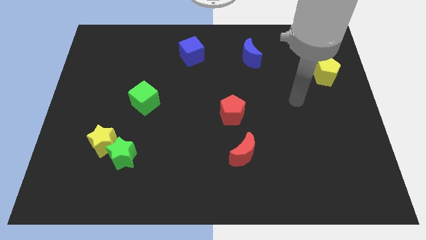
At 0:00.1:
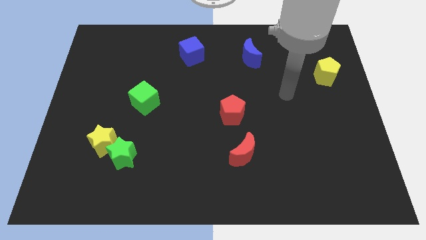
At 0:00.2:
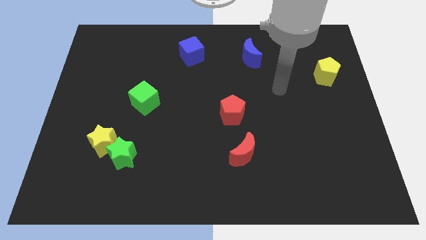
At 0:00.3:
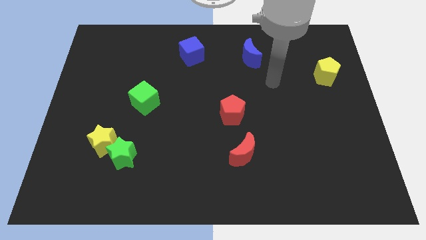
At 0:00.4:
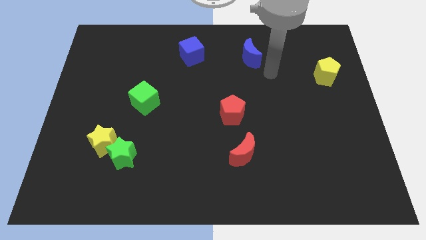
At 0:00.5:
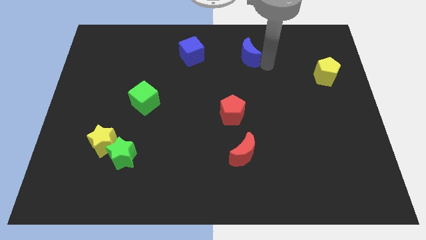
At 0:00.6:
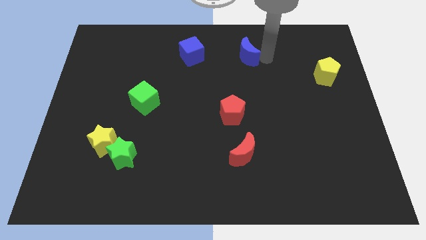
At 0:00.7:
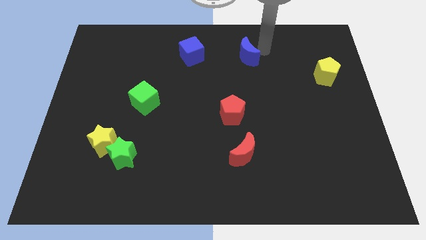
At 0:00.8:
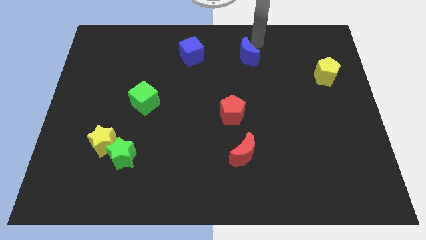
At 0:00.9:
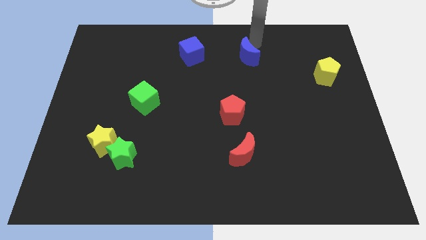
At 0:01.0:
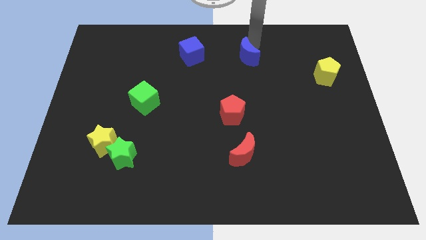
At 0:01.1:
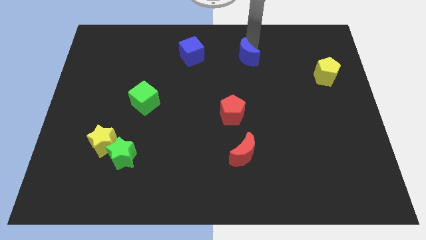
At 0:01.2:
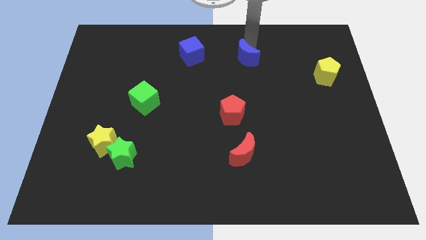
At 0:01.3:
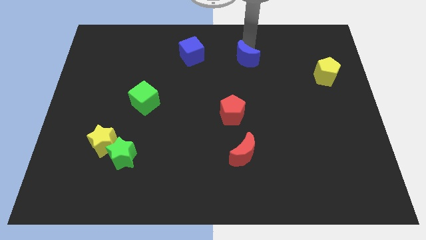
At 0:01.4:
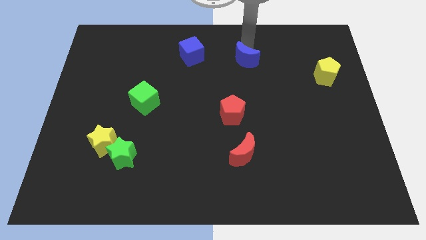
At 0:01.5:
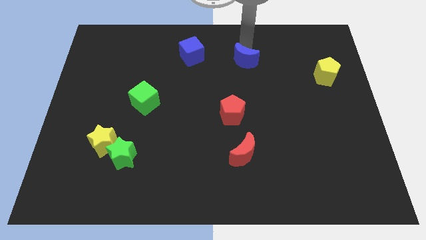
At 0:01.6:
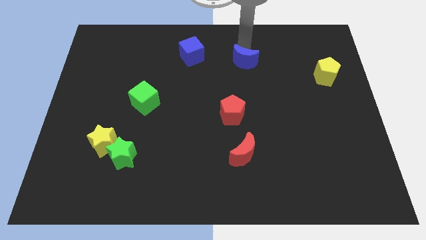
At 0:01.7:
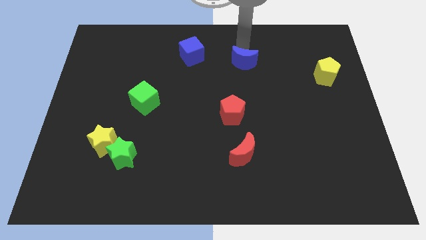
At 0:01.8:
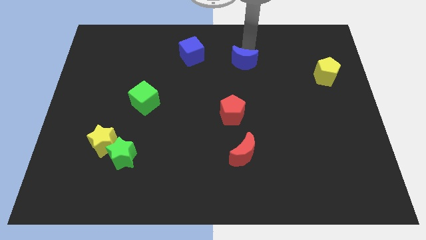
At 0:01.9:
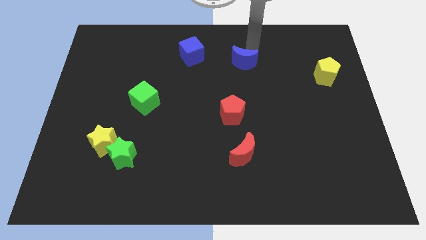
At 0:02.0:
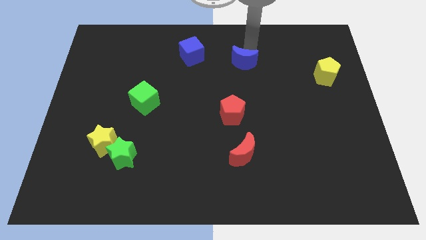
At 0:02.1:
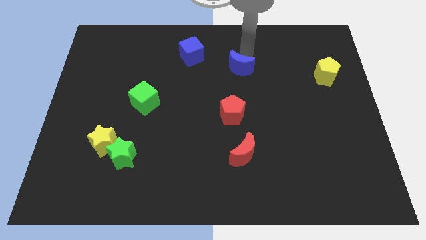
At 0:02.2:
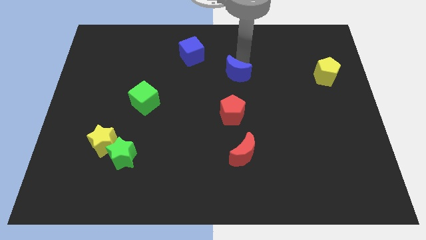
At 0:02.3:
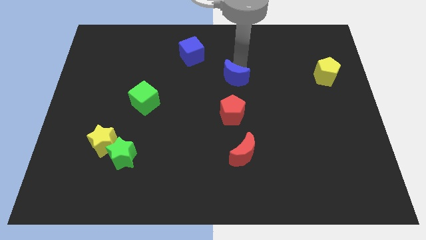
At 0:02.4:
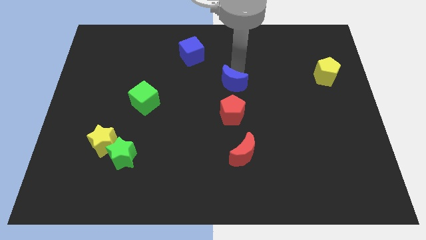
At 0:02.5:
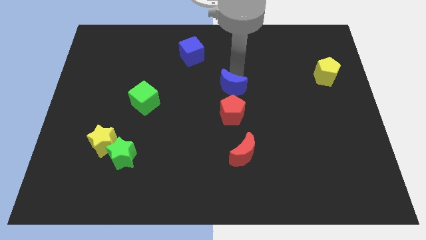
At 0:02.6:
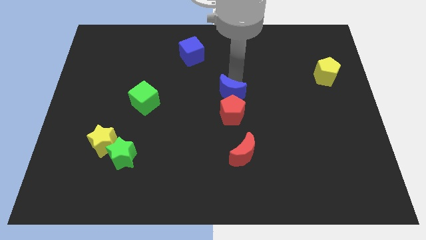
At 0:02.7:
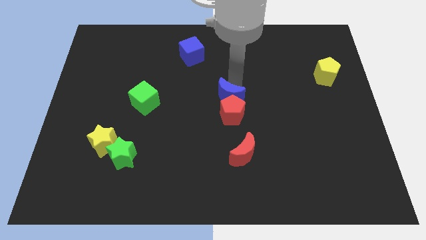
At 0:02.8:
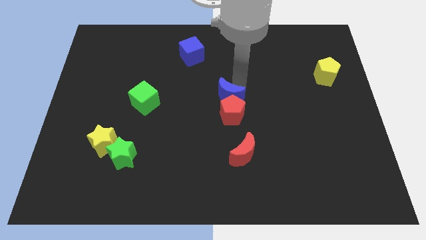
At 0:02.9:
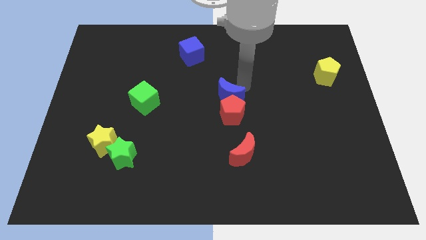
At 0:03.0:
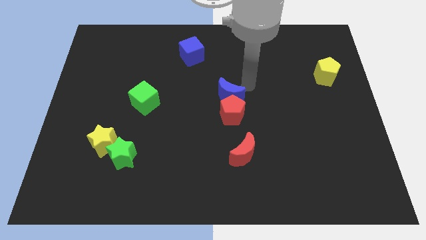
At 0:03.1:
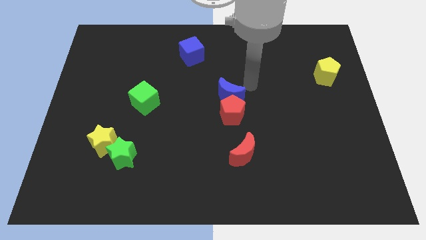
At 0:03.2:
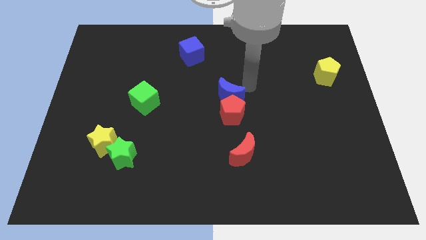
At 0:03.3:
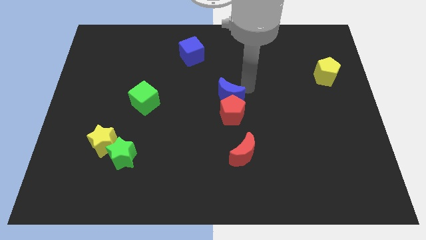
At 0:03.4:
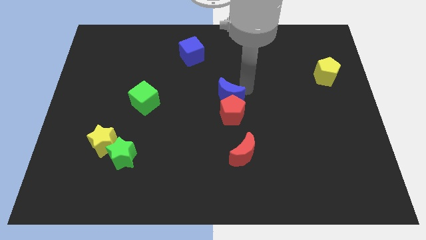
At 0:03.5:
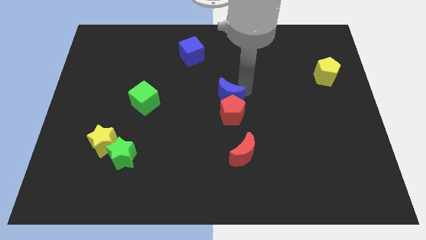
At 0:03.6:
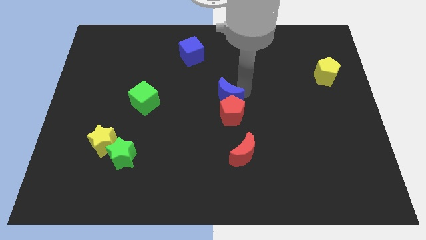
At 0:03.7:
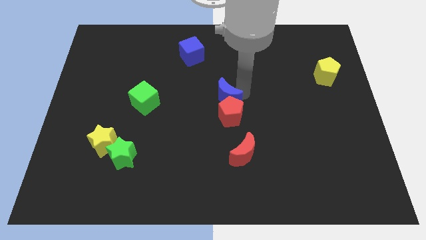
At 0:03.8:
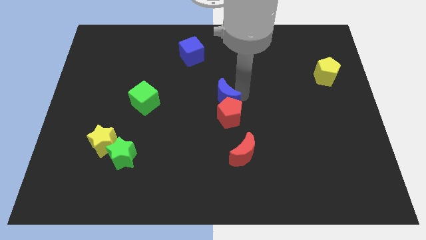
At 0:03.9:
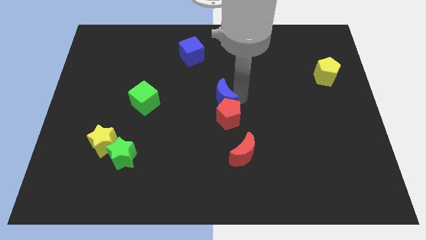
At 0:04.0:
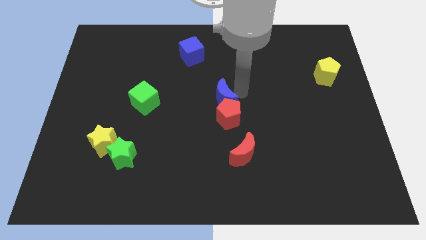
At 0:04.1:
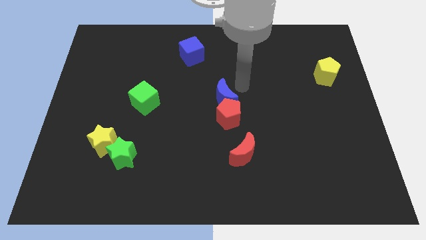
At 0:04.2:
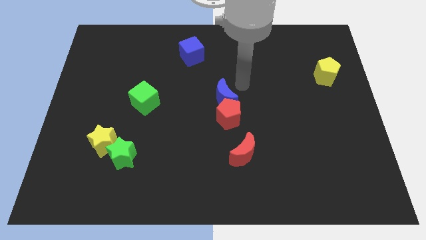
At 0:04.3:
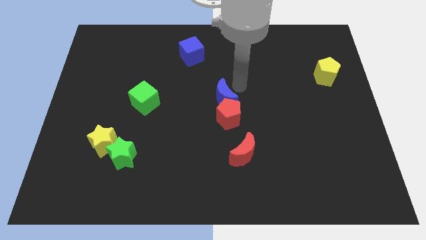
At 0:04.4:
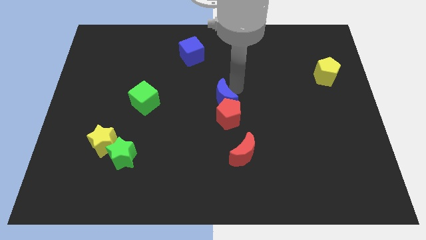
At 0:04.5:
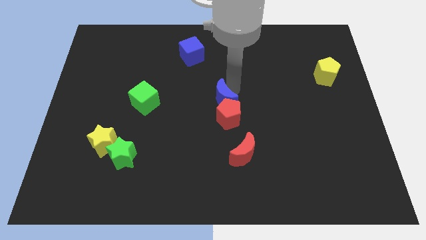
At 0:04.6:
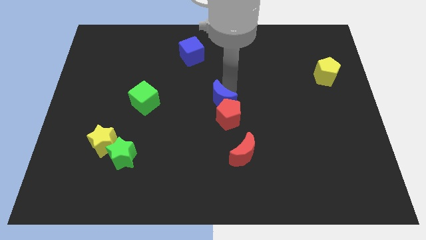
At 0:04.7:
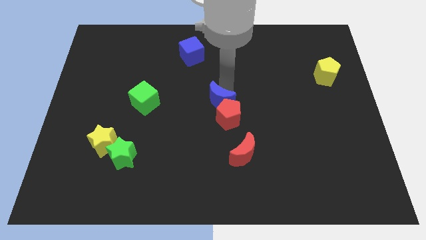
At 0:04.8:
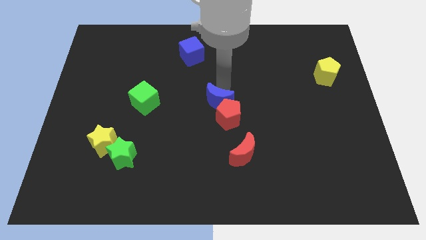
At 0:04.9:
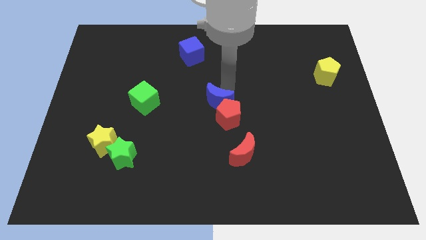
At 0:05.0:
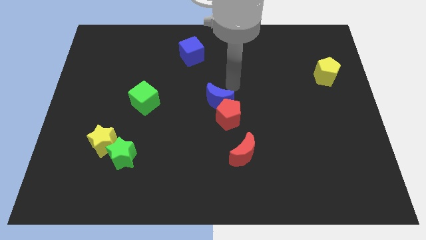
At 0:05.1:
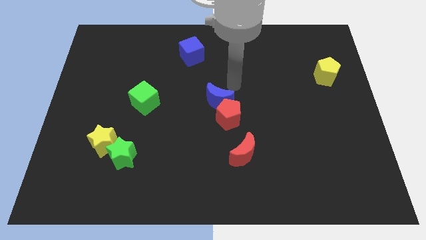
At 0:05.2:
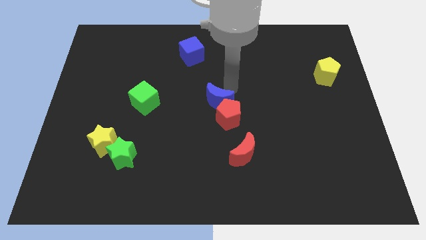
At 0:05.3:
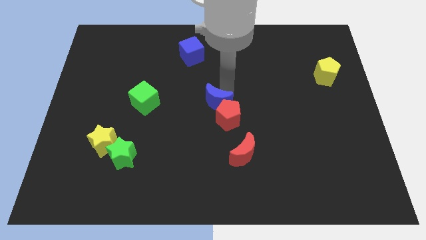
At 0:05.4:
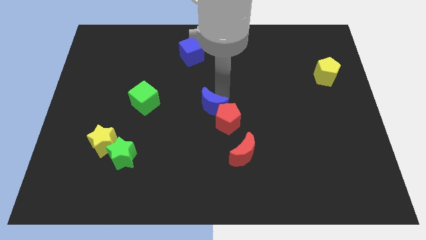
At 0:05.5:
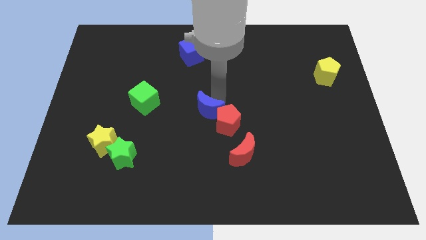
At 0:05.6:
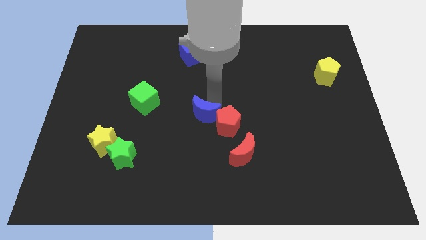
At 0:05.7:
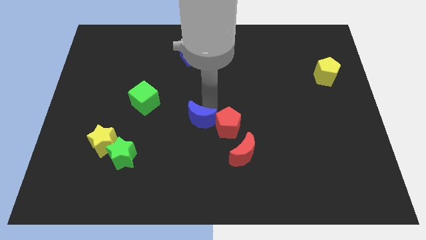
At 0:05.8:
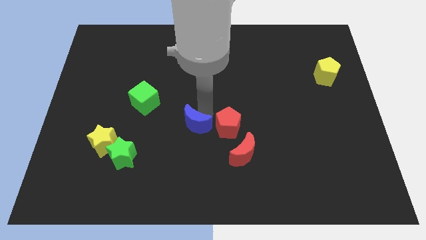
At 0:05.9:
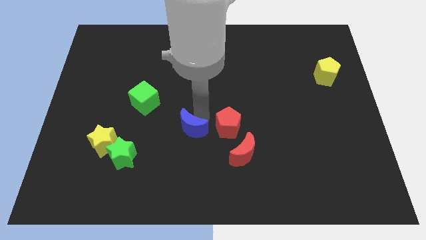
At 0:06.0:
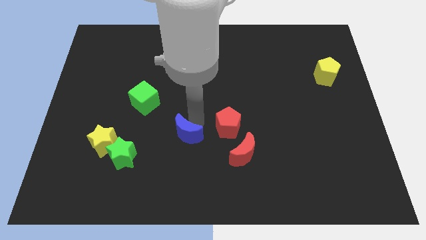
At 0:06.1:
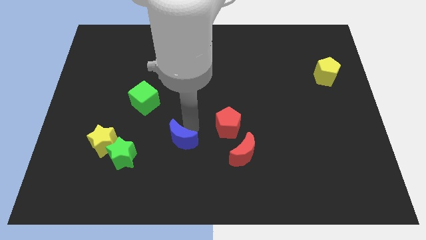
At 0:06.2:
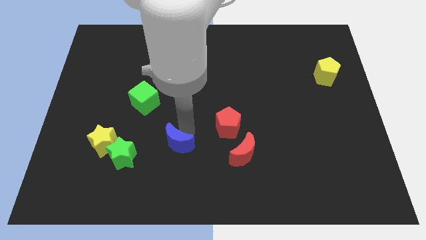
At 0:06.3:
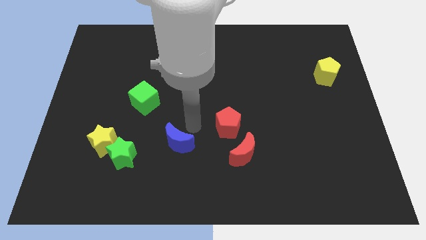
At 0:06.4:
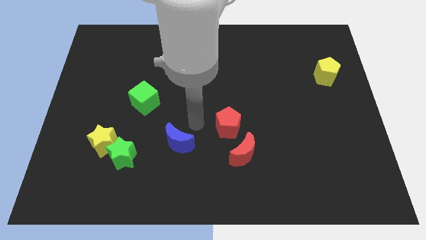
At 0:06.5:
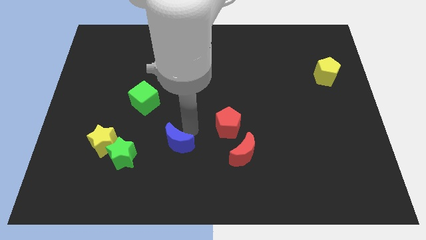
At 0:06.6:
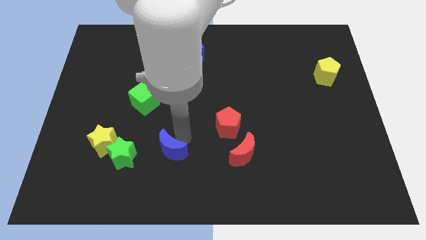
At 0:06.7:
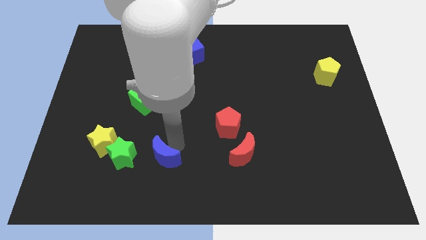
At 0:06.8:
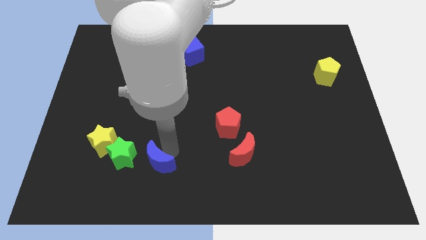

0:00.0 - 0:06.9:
move the blue moon diagonally down and to the right of the green star
